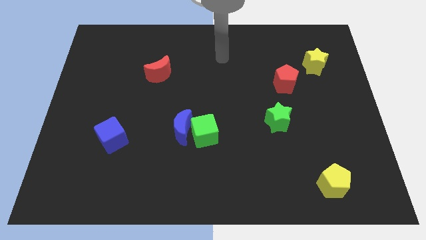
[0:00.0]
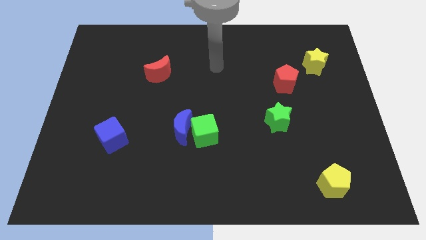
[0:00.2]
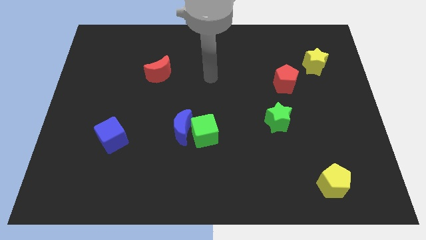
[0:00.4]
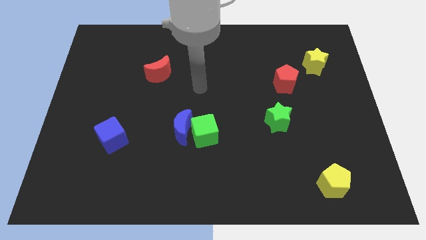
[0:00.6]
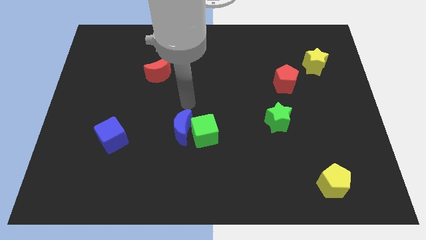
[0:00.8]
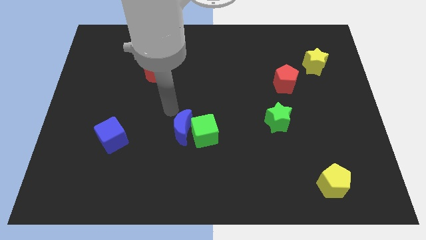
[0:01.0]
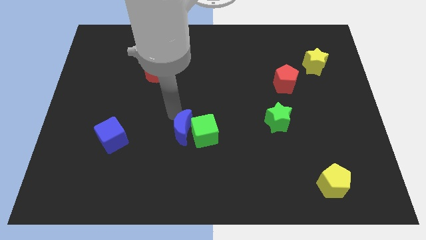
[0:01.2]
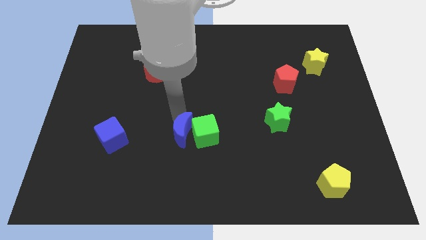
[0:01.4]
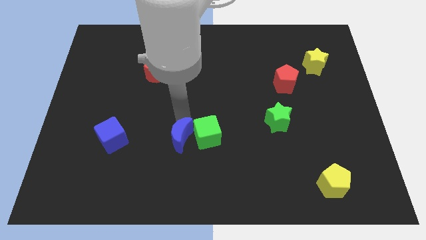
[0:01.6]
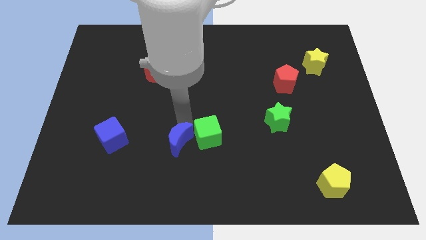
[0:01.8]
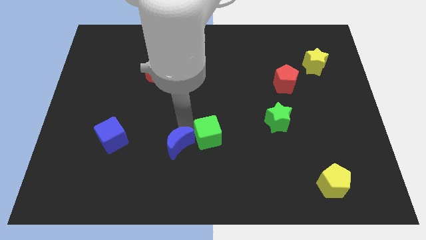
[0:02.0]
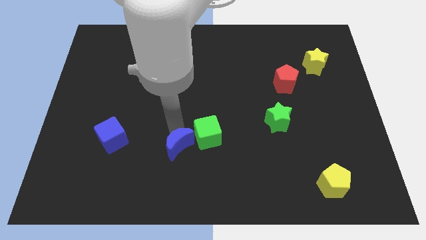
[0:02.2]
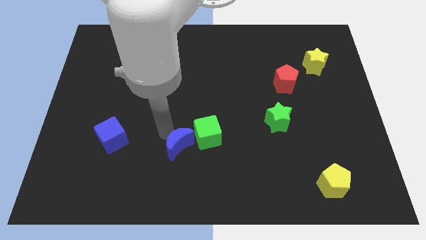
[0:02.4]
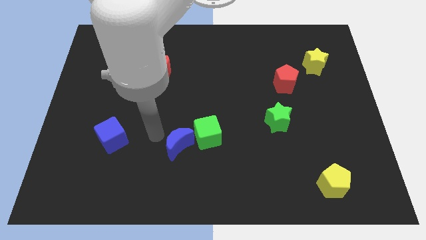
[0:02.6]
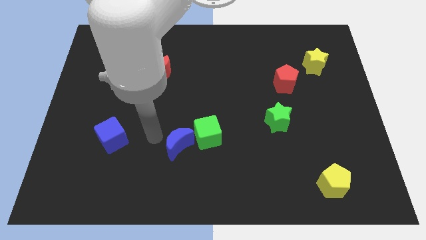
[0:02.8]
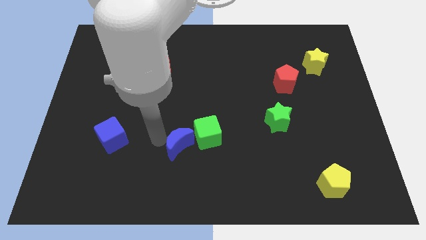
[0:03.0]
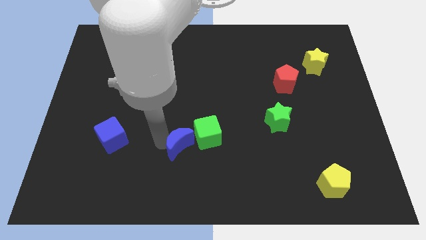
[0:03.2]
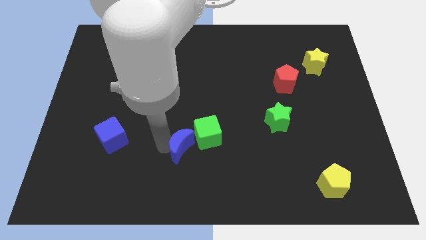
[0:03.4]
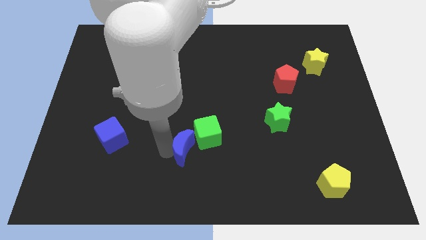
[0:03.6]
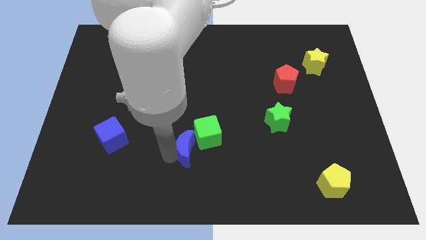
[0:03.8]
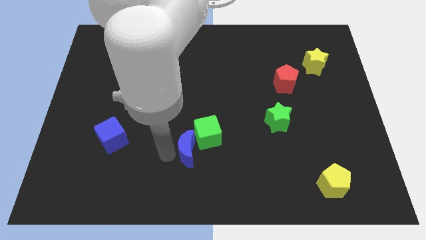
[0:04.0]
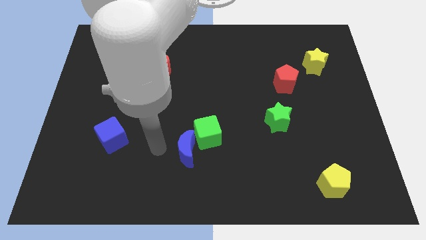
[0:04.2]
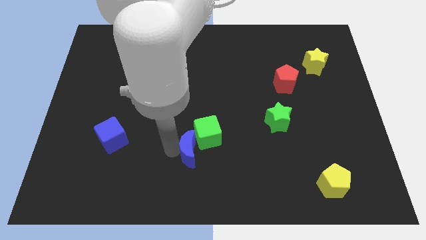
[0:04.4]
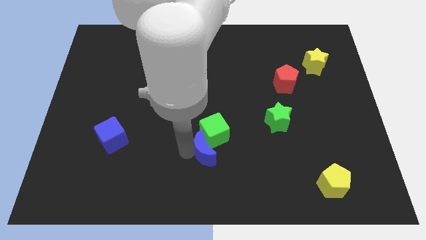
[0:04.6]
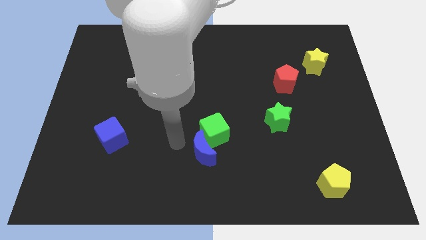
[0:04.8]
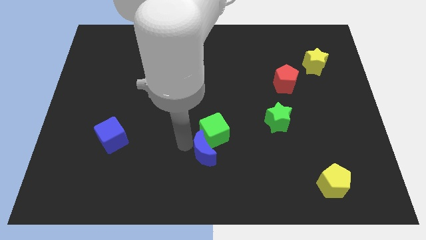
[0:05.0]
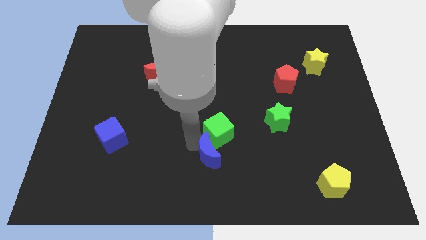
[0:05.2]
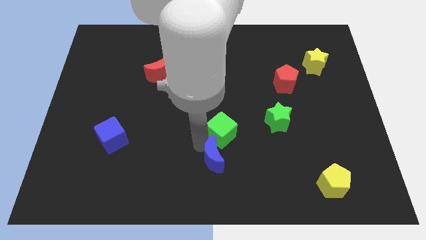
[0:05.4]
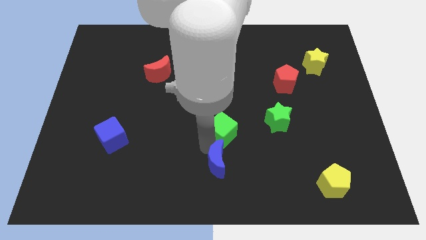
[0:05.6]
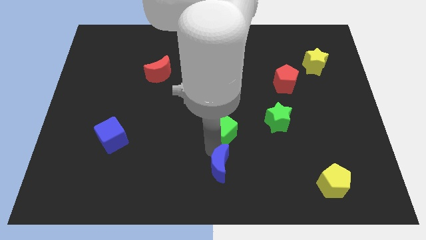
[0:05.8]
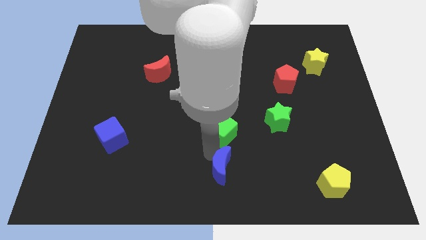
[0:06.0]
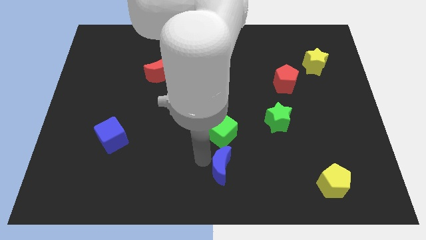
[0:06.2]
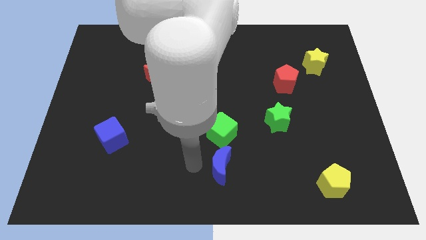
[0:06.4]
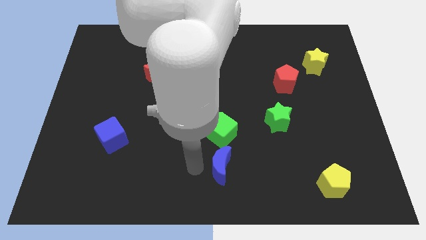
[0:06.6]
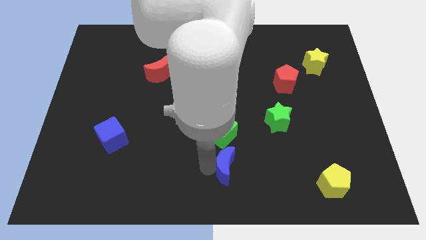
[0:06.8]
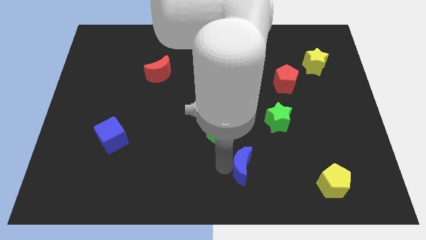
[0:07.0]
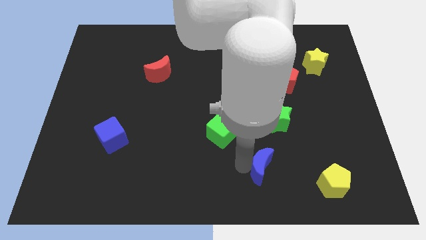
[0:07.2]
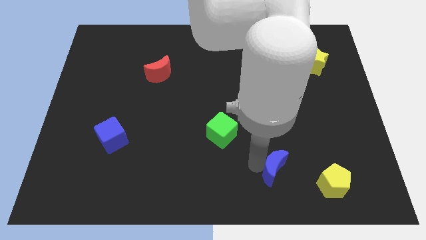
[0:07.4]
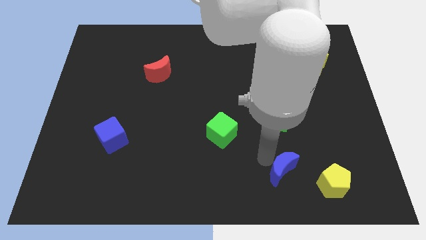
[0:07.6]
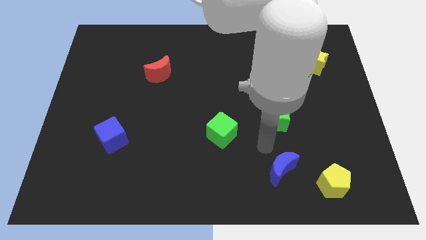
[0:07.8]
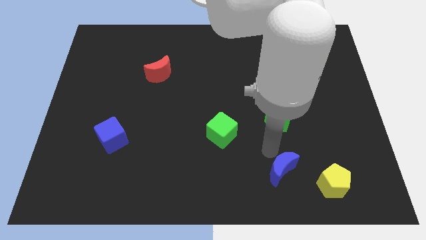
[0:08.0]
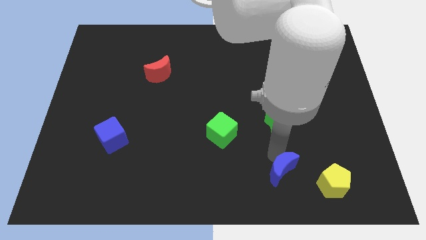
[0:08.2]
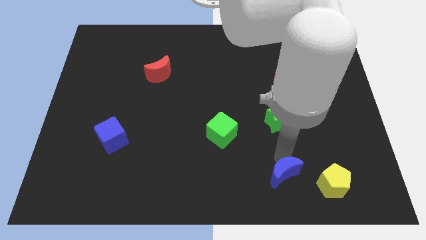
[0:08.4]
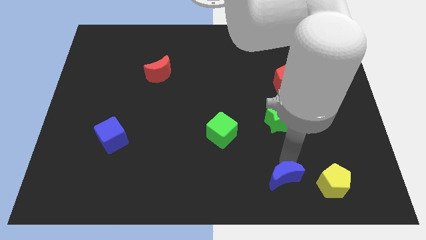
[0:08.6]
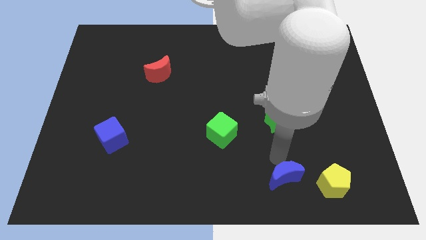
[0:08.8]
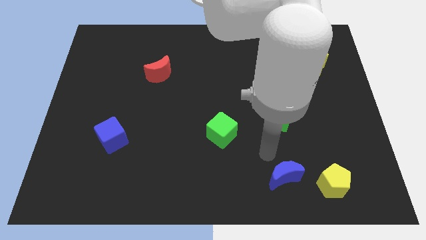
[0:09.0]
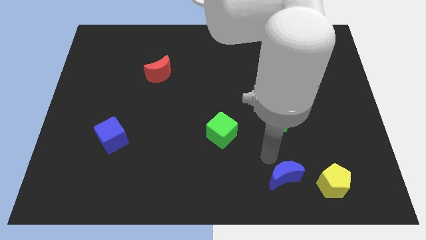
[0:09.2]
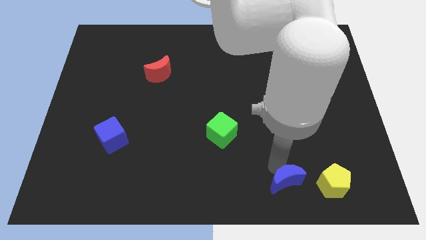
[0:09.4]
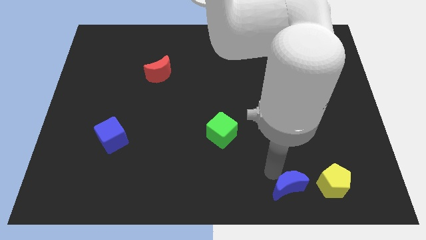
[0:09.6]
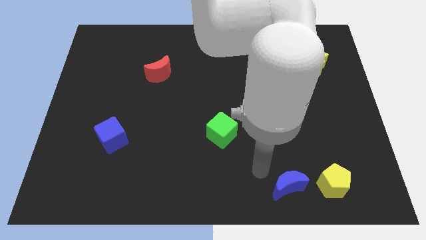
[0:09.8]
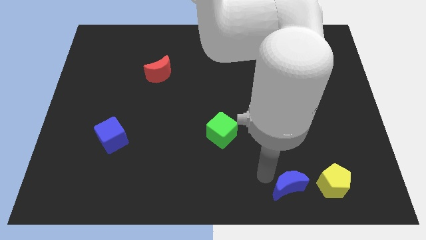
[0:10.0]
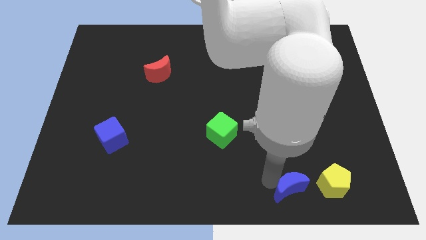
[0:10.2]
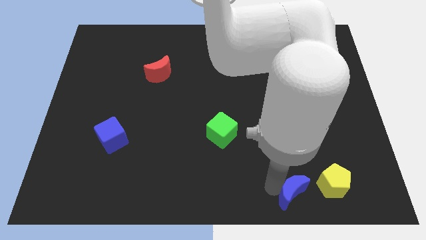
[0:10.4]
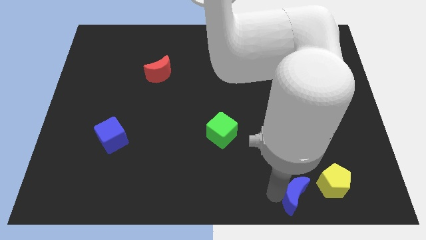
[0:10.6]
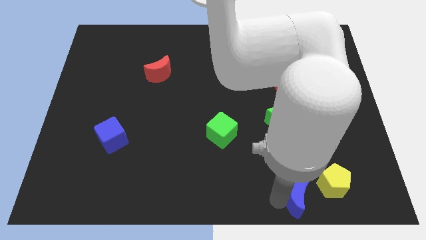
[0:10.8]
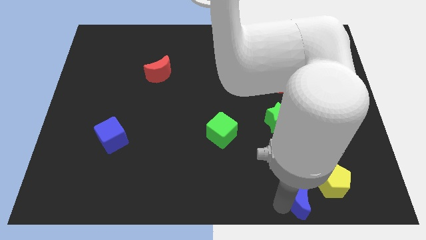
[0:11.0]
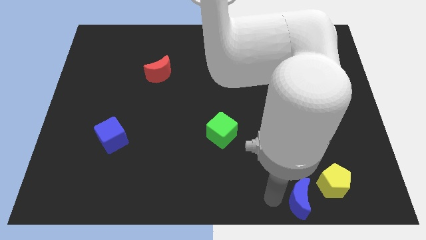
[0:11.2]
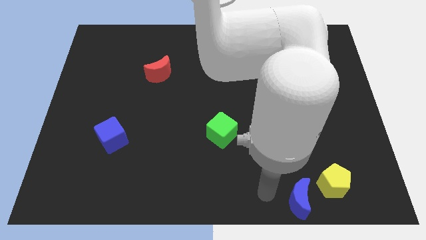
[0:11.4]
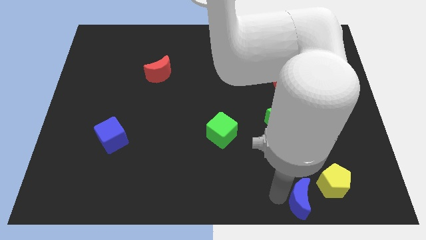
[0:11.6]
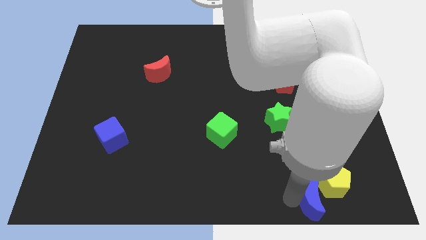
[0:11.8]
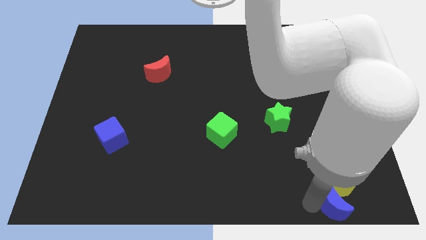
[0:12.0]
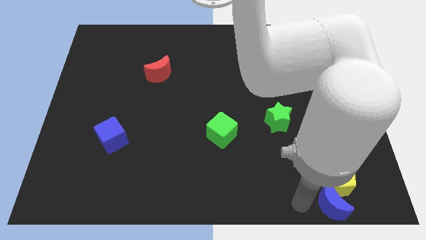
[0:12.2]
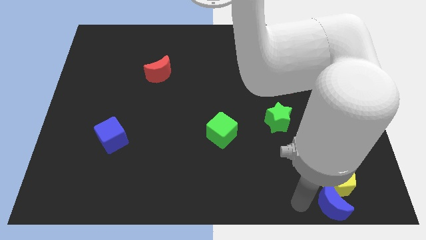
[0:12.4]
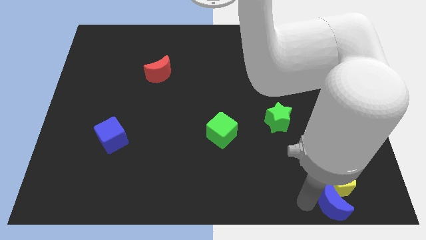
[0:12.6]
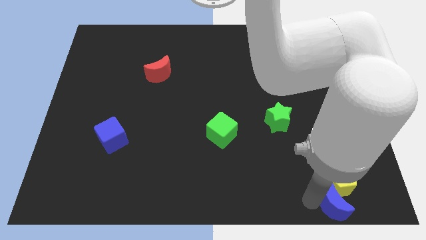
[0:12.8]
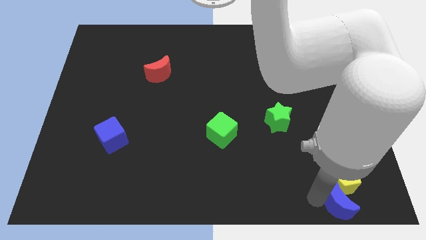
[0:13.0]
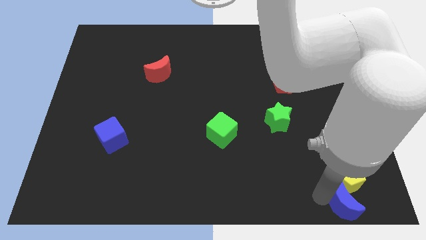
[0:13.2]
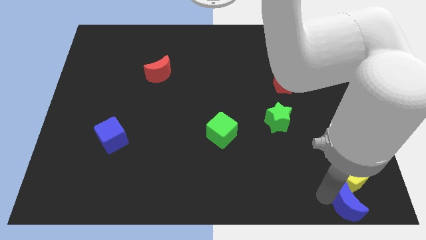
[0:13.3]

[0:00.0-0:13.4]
slide the blue moon to the bottom right corner
